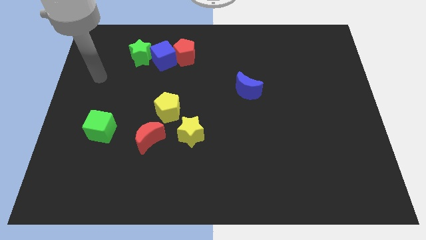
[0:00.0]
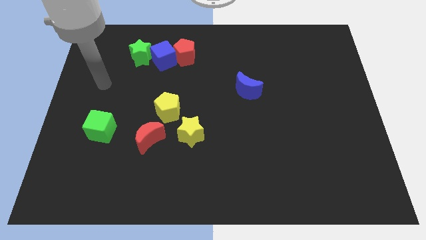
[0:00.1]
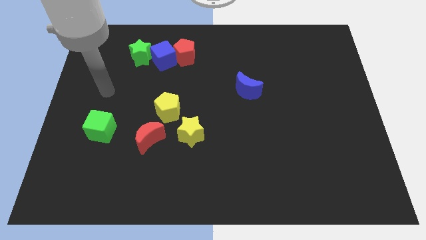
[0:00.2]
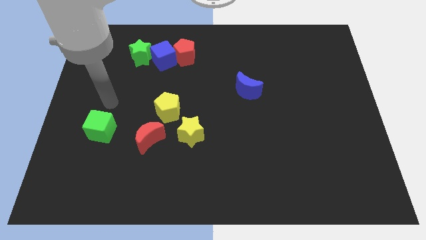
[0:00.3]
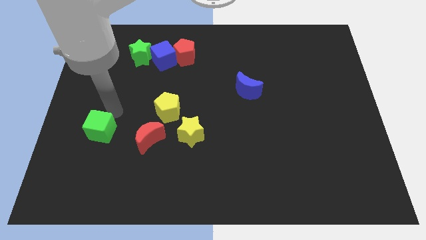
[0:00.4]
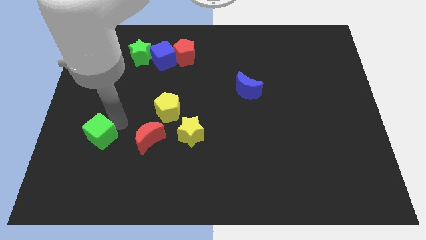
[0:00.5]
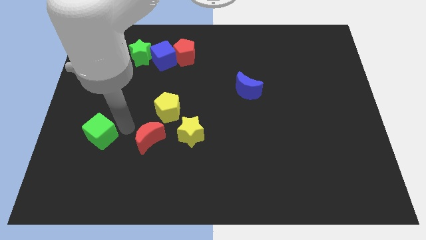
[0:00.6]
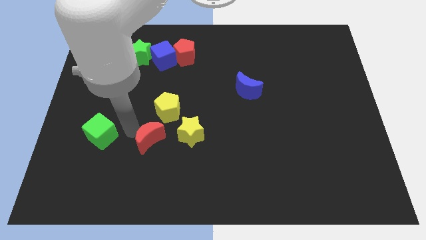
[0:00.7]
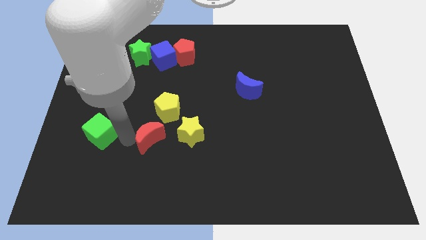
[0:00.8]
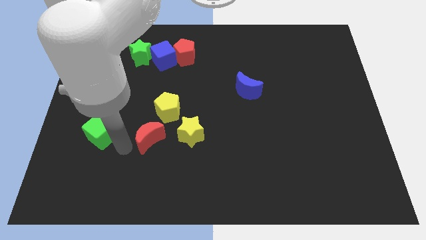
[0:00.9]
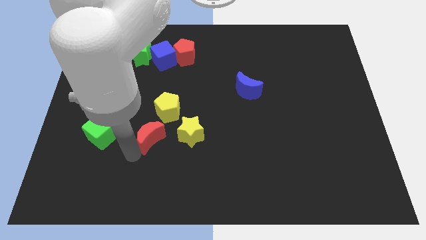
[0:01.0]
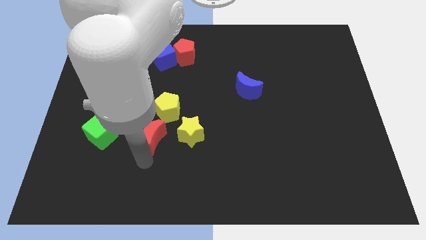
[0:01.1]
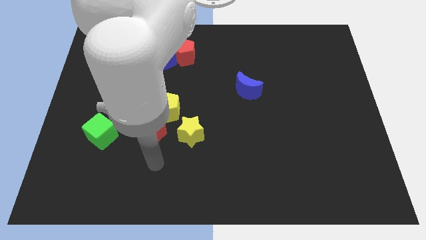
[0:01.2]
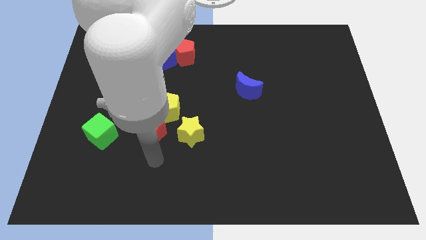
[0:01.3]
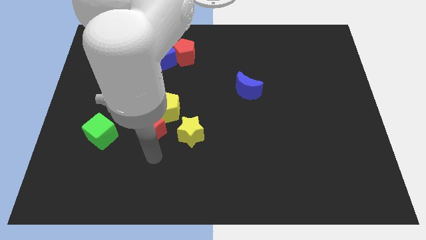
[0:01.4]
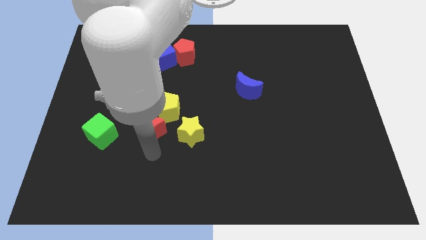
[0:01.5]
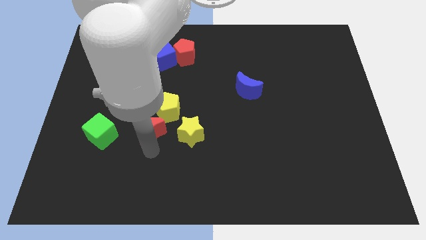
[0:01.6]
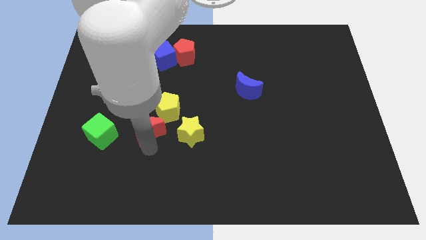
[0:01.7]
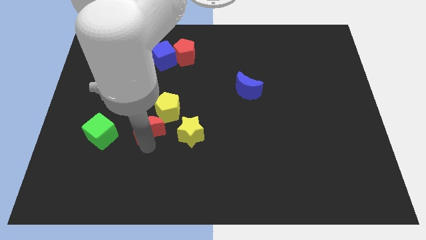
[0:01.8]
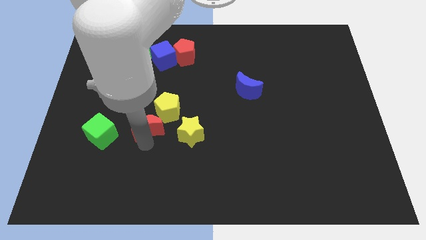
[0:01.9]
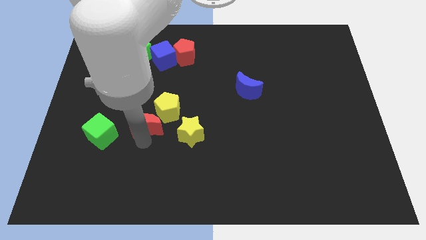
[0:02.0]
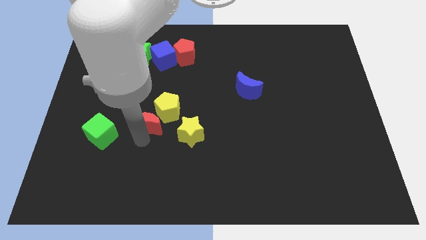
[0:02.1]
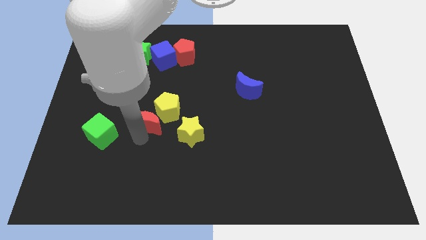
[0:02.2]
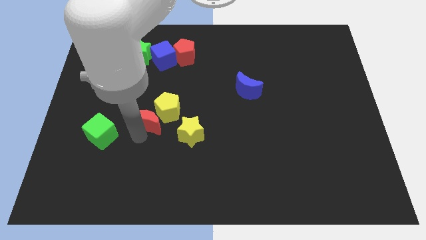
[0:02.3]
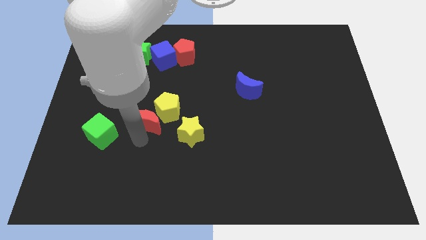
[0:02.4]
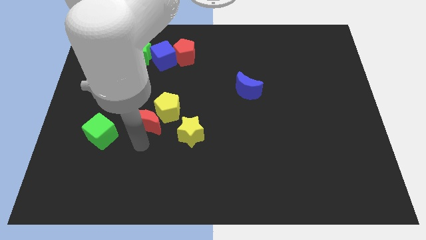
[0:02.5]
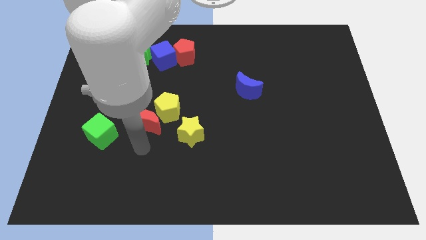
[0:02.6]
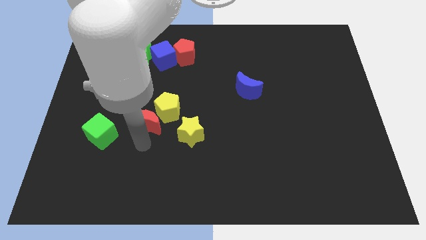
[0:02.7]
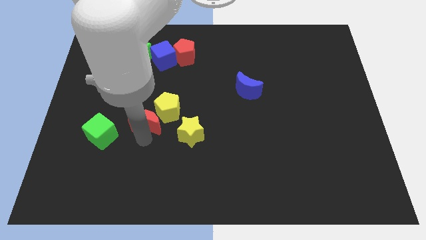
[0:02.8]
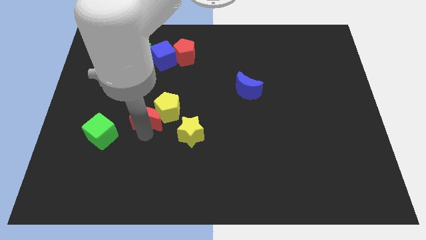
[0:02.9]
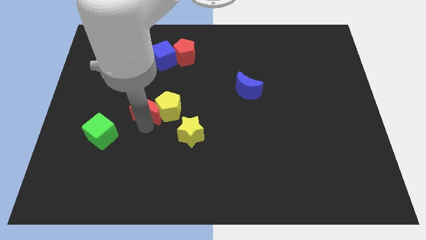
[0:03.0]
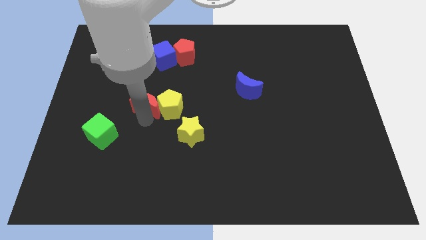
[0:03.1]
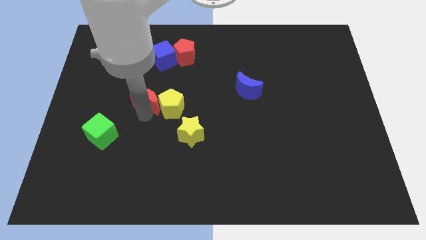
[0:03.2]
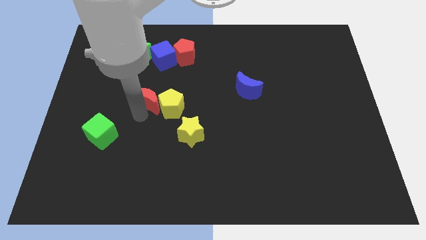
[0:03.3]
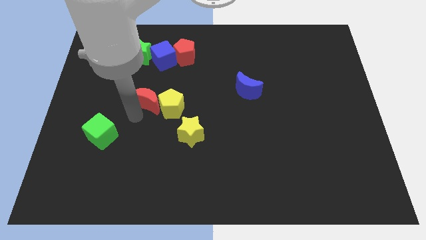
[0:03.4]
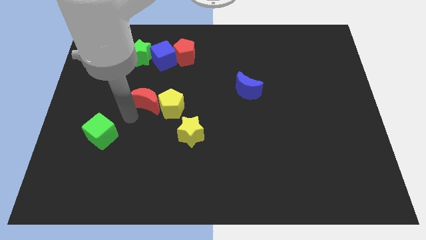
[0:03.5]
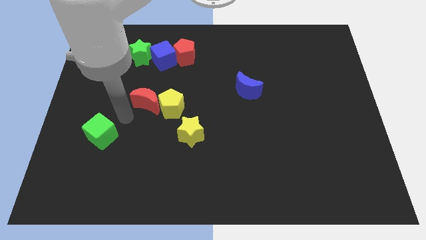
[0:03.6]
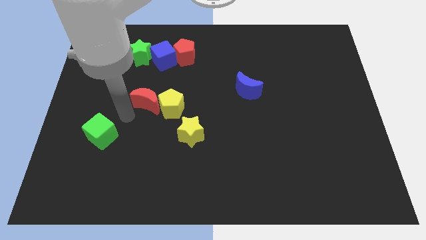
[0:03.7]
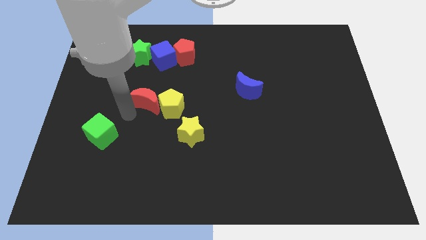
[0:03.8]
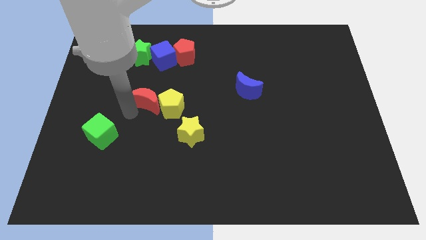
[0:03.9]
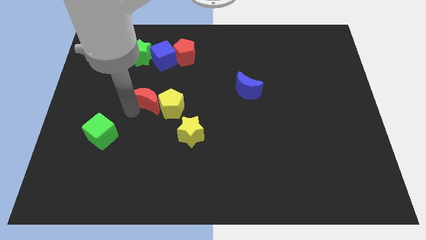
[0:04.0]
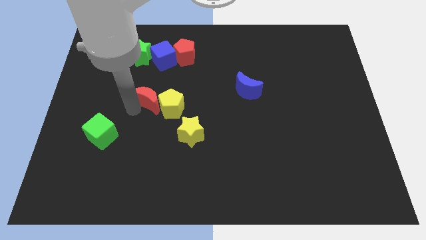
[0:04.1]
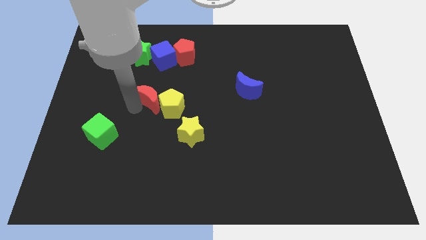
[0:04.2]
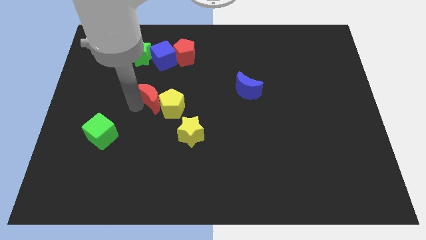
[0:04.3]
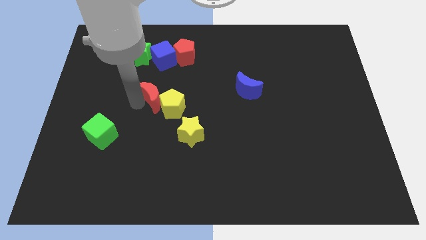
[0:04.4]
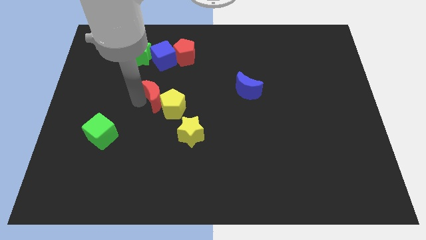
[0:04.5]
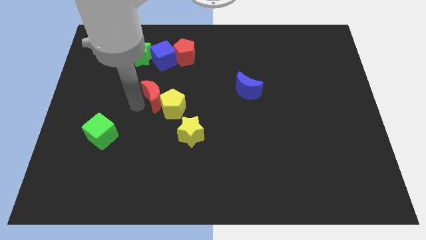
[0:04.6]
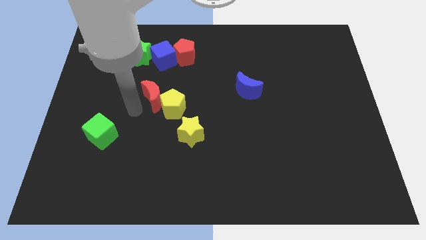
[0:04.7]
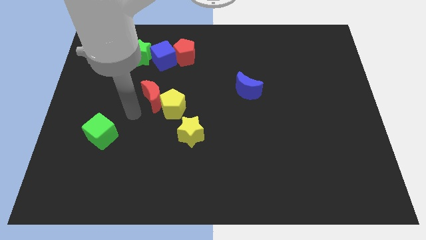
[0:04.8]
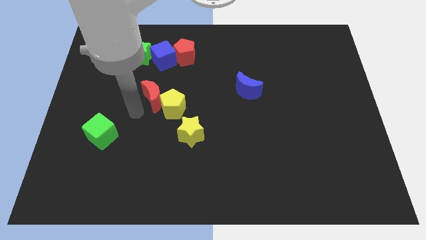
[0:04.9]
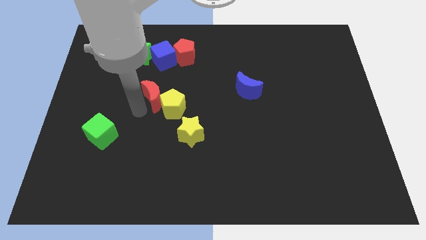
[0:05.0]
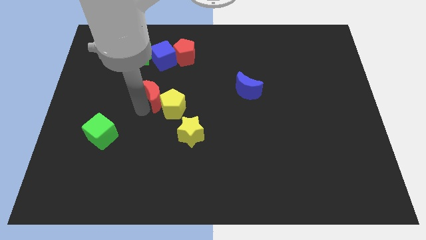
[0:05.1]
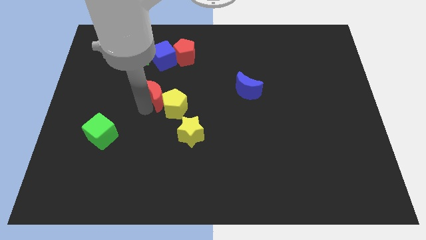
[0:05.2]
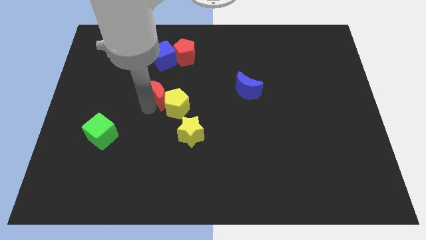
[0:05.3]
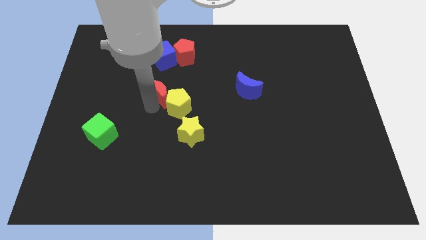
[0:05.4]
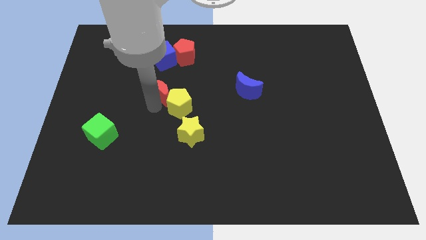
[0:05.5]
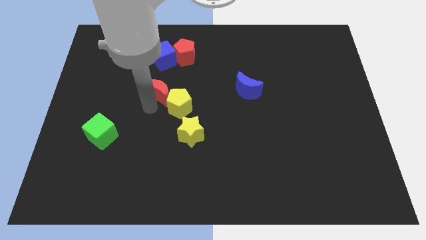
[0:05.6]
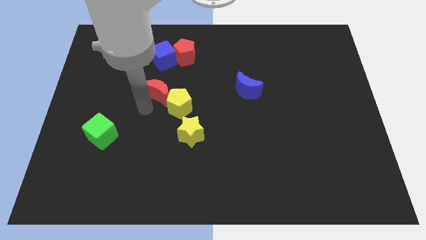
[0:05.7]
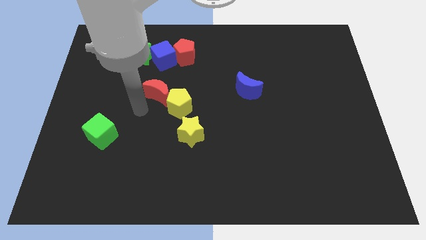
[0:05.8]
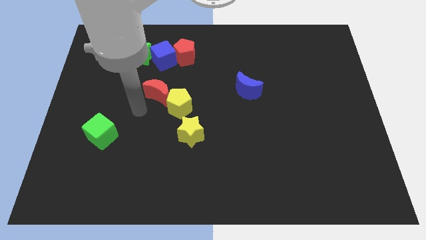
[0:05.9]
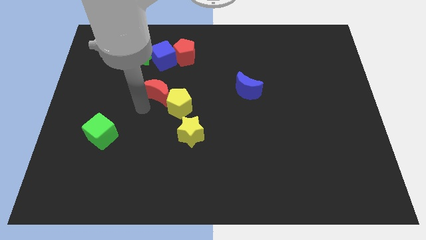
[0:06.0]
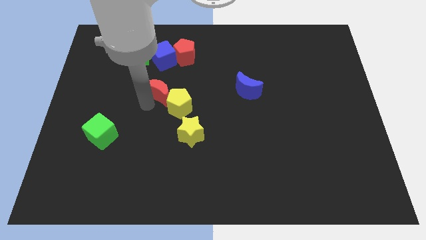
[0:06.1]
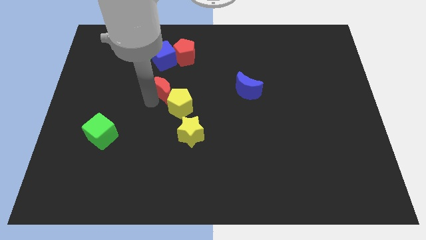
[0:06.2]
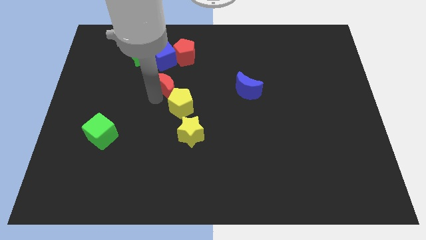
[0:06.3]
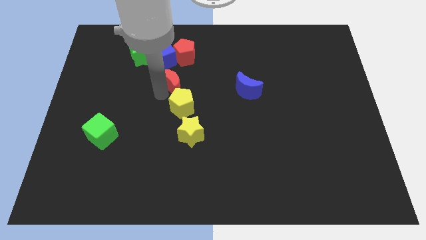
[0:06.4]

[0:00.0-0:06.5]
slide the red moon to the bottom right of the blue cube

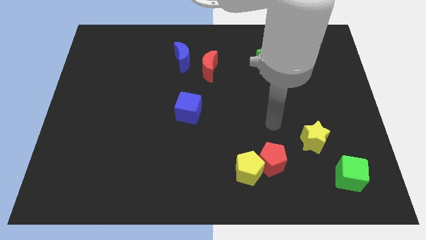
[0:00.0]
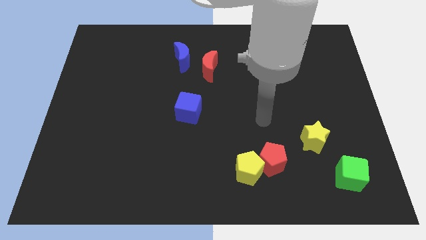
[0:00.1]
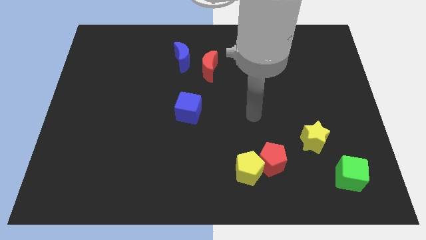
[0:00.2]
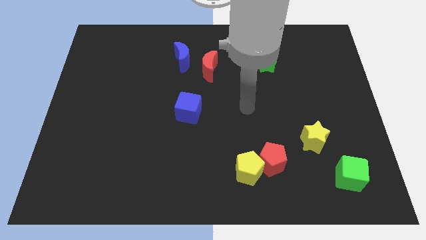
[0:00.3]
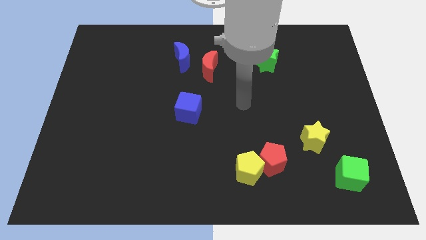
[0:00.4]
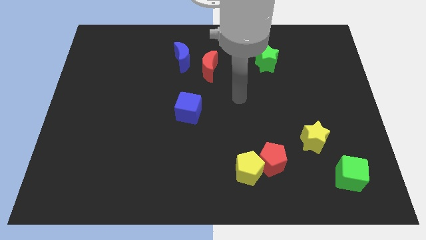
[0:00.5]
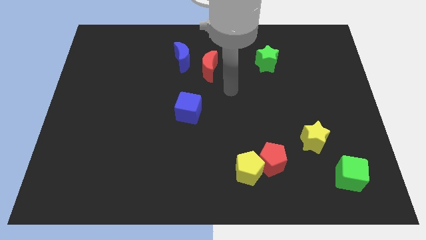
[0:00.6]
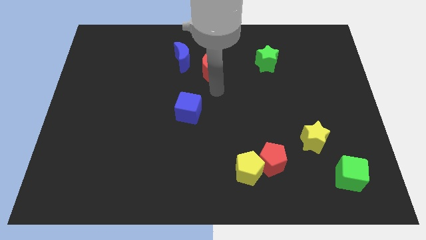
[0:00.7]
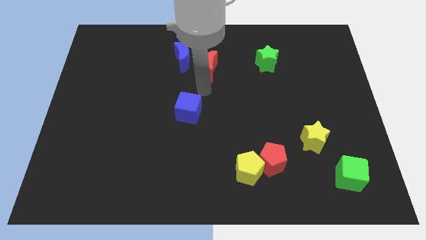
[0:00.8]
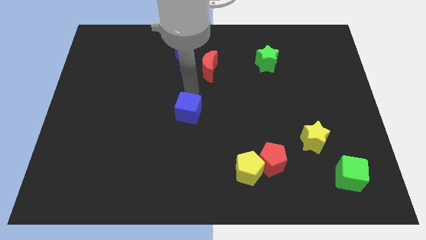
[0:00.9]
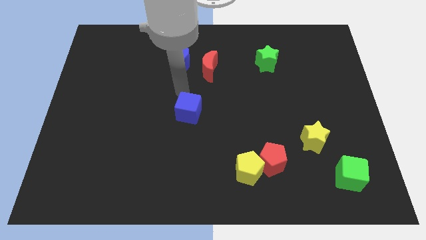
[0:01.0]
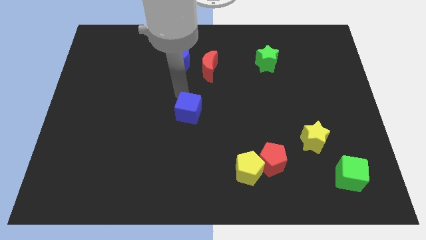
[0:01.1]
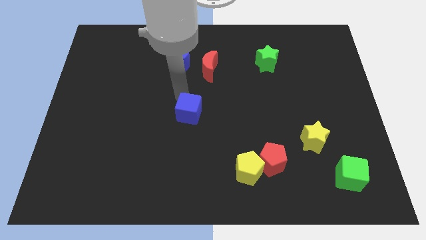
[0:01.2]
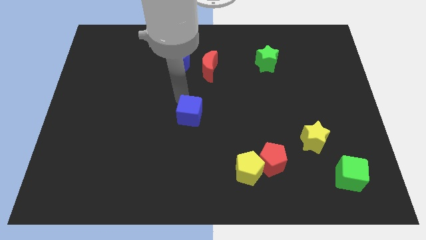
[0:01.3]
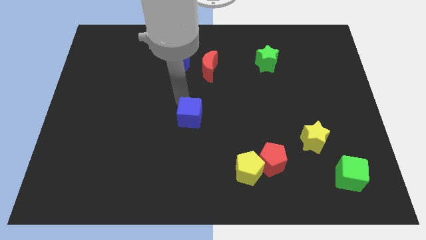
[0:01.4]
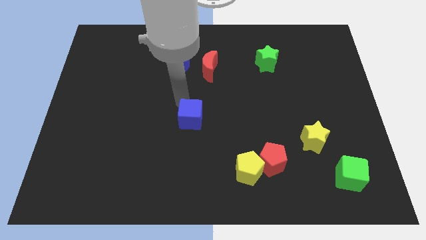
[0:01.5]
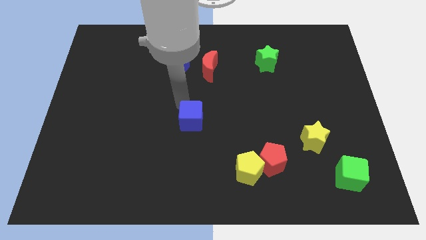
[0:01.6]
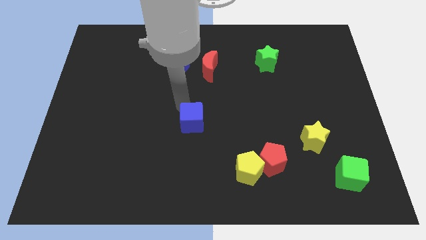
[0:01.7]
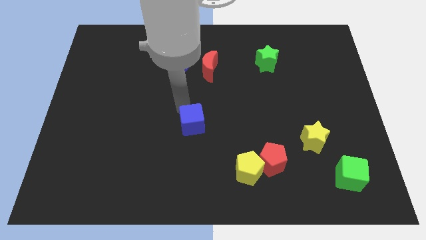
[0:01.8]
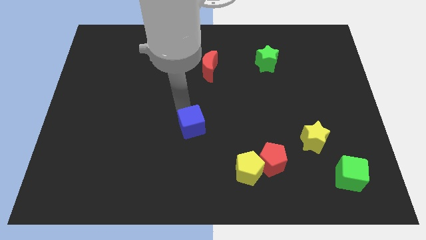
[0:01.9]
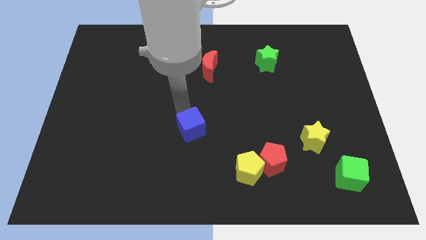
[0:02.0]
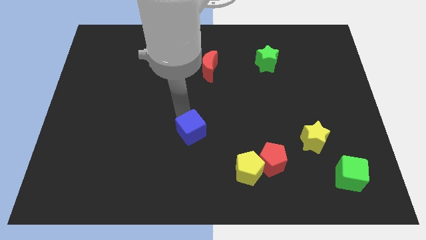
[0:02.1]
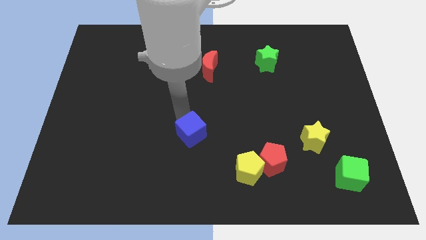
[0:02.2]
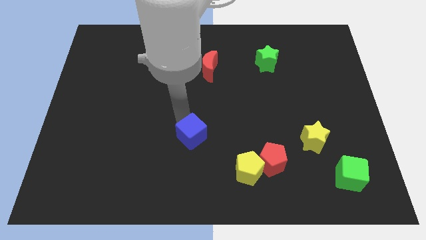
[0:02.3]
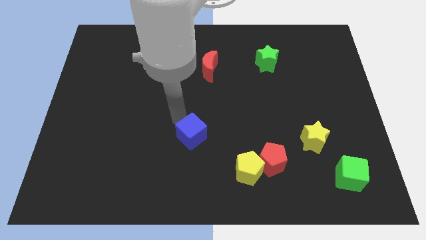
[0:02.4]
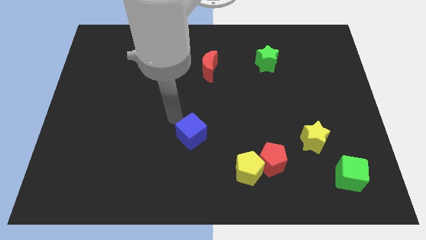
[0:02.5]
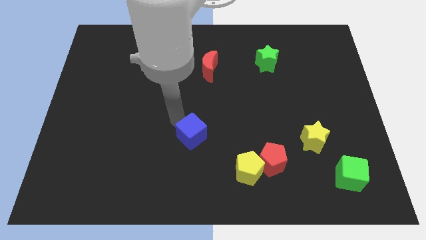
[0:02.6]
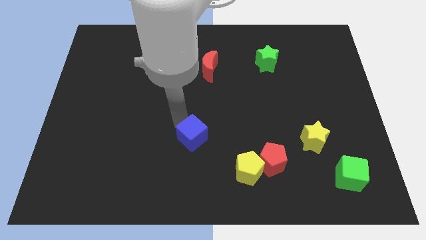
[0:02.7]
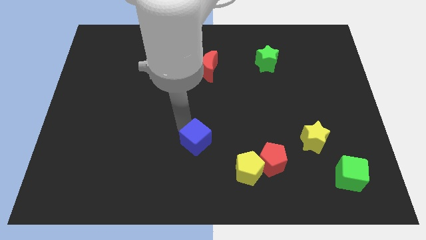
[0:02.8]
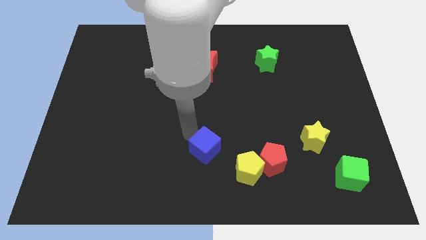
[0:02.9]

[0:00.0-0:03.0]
push the blue cube just left of the red pentagon
